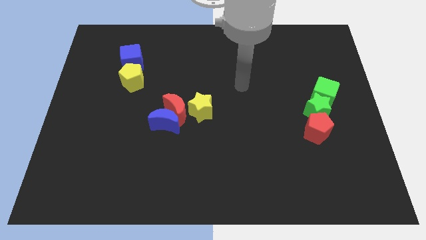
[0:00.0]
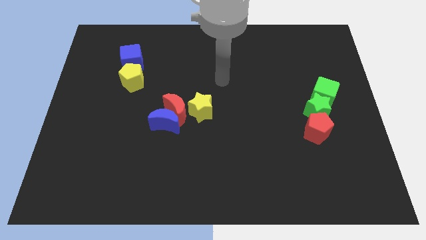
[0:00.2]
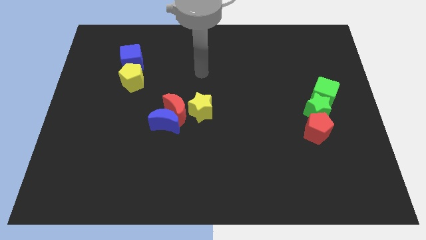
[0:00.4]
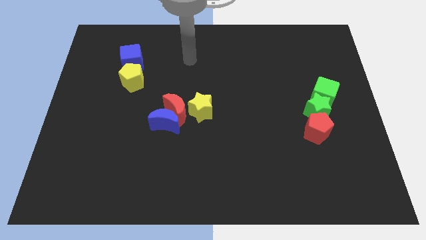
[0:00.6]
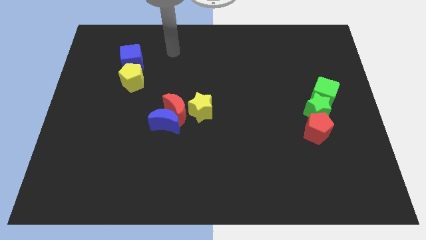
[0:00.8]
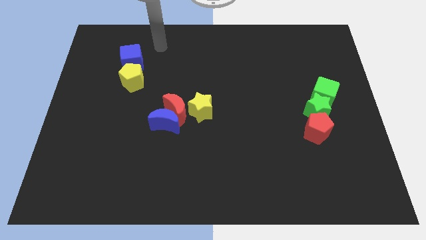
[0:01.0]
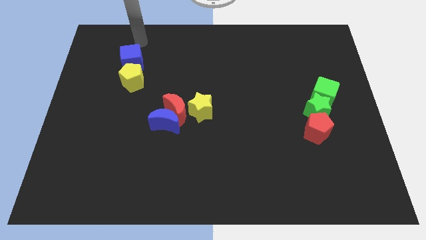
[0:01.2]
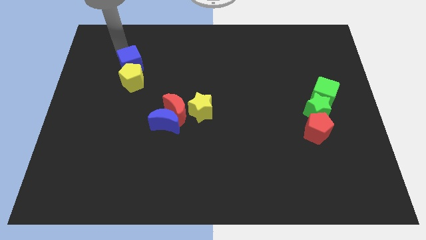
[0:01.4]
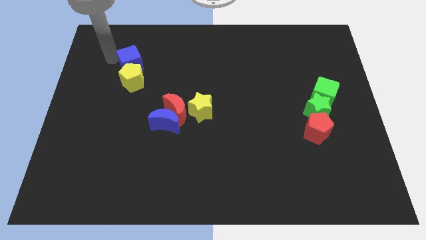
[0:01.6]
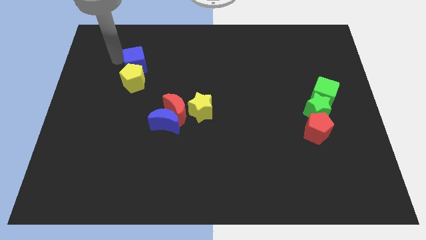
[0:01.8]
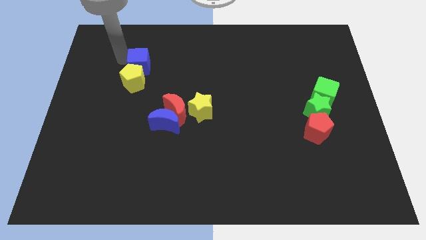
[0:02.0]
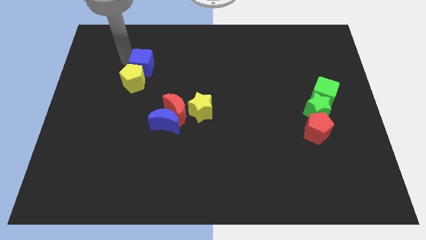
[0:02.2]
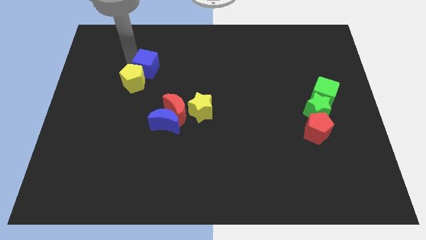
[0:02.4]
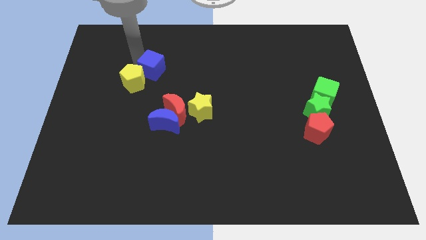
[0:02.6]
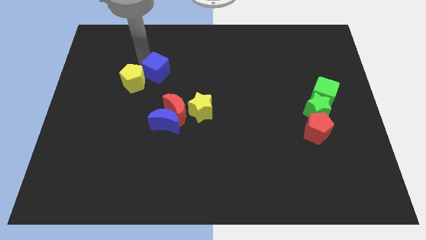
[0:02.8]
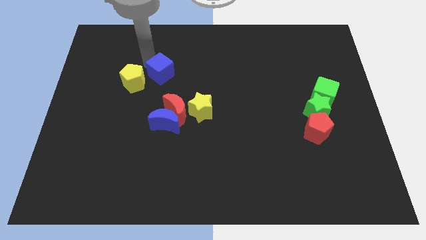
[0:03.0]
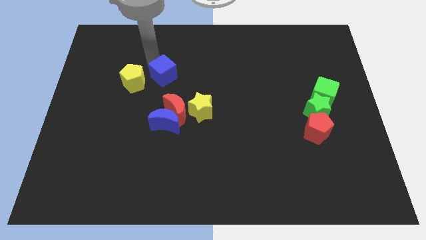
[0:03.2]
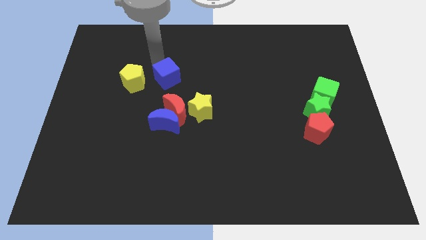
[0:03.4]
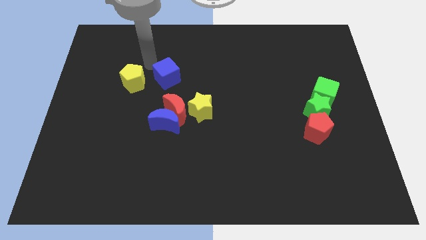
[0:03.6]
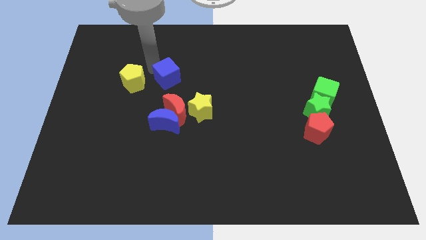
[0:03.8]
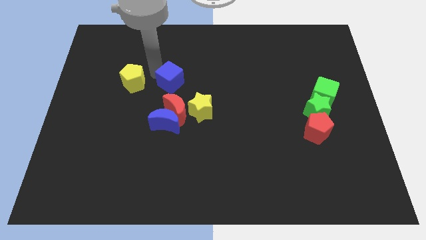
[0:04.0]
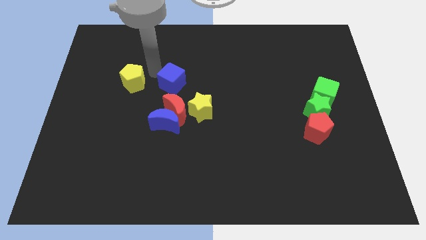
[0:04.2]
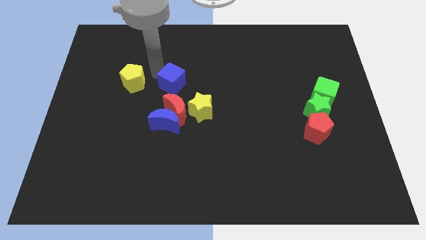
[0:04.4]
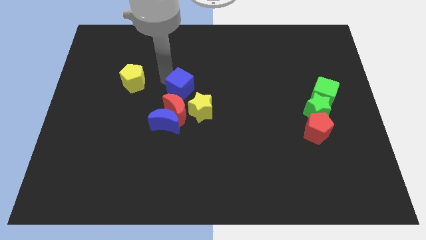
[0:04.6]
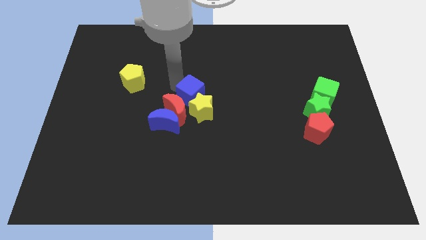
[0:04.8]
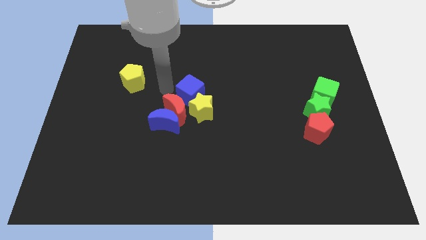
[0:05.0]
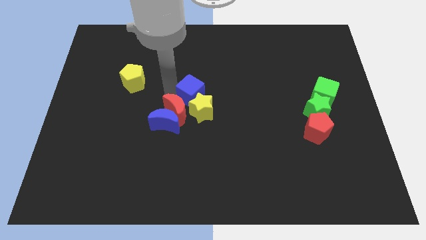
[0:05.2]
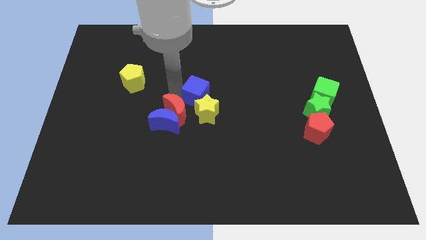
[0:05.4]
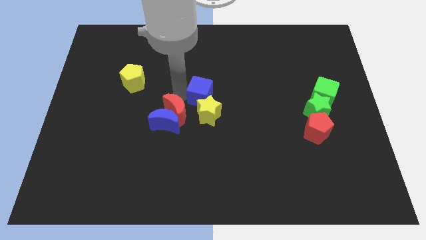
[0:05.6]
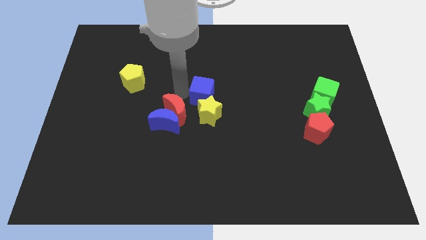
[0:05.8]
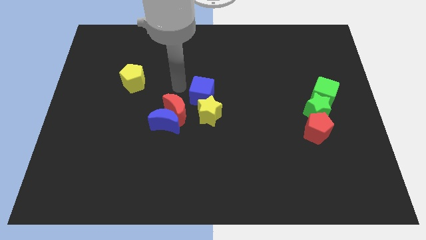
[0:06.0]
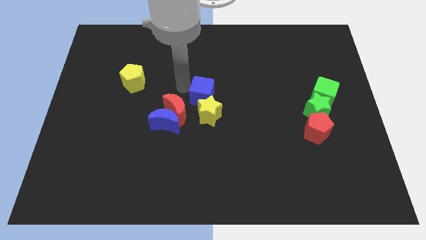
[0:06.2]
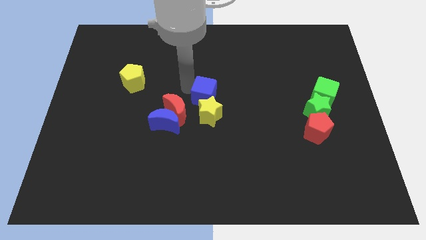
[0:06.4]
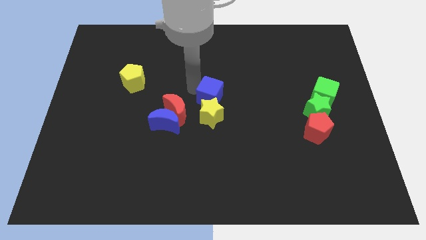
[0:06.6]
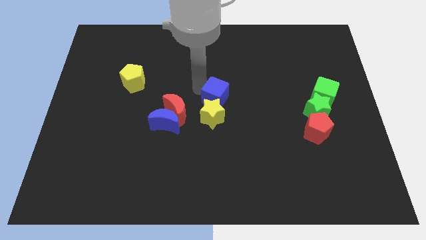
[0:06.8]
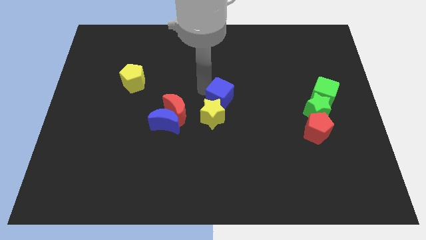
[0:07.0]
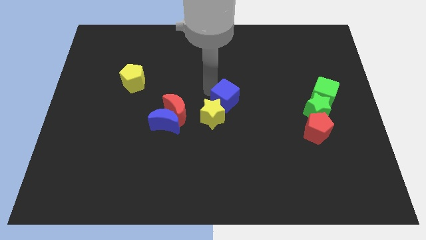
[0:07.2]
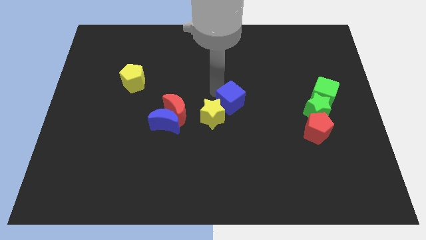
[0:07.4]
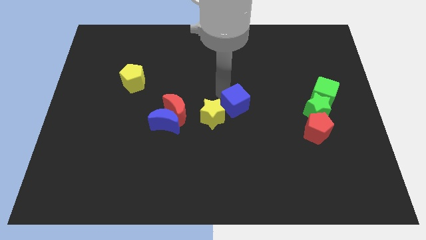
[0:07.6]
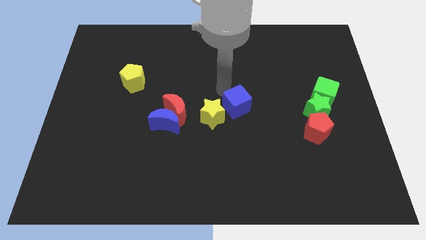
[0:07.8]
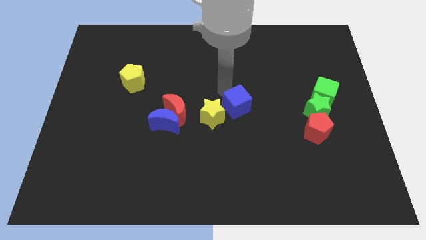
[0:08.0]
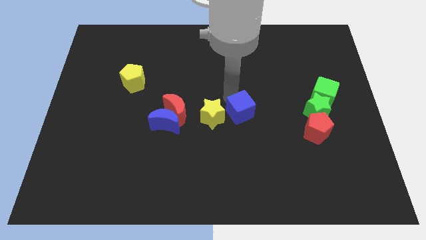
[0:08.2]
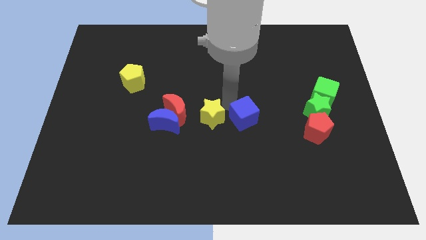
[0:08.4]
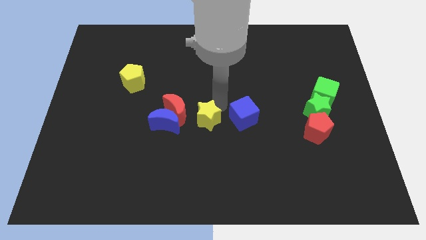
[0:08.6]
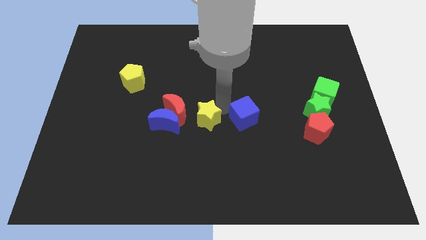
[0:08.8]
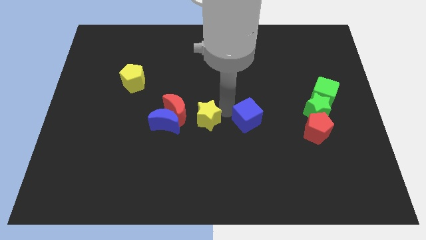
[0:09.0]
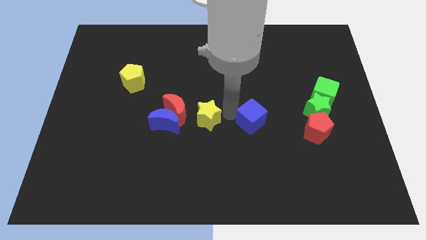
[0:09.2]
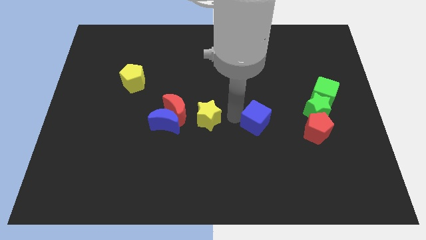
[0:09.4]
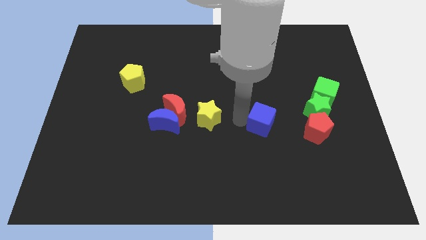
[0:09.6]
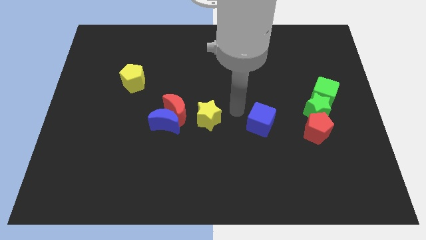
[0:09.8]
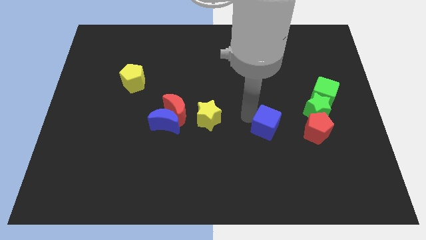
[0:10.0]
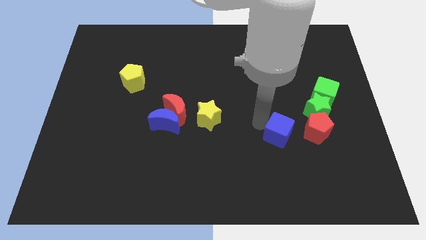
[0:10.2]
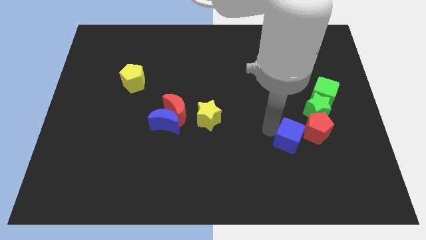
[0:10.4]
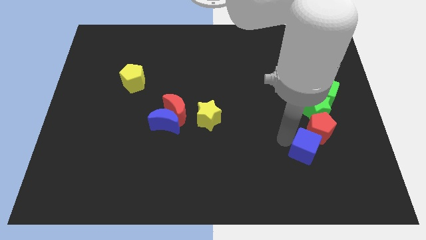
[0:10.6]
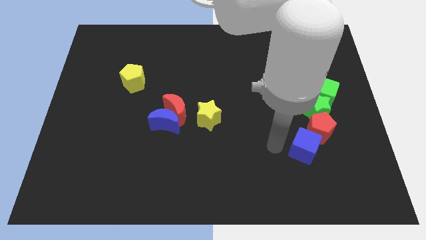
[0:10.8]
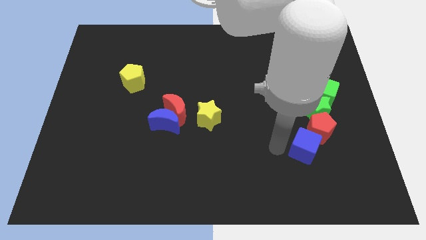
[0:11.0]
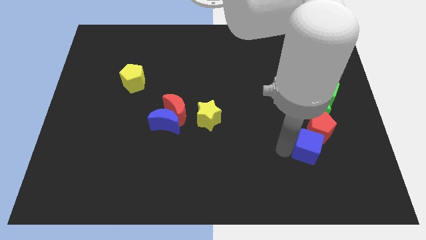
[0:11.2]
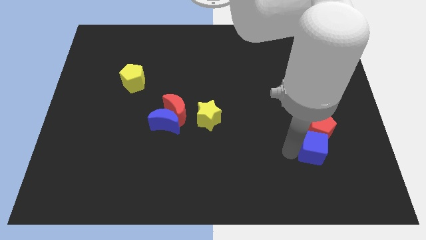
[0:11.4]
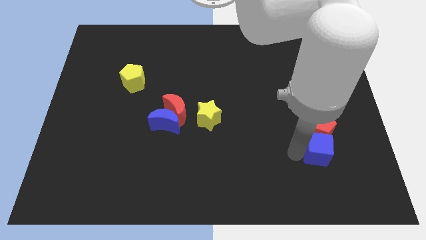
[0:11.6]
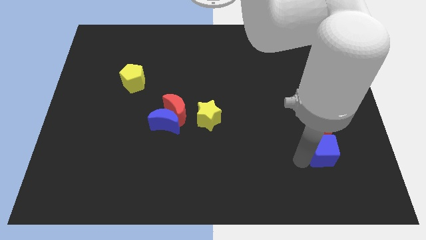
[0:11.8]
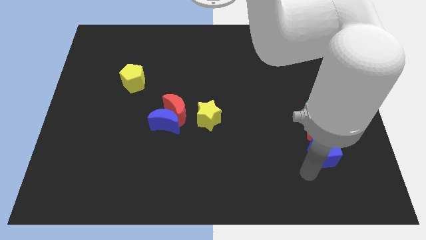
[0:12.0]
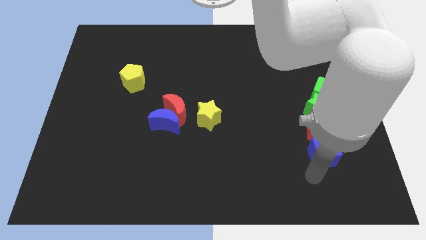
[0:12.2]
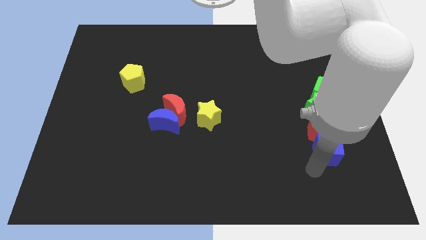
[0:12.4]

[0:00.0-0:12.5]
move the blue cube to the bottom of the green cube
